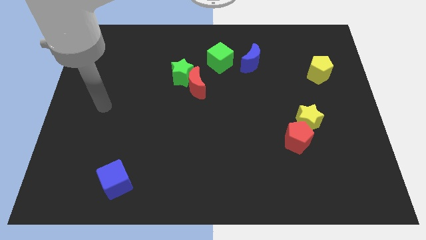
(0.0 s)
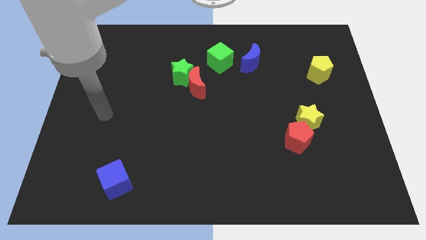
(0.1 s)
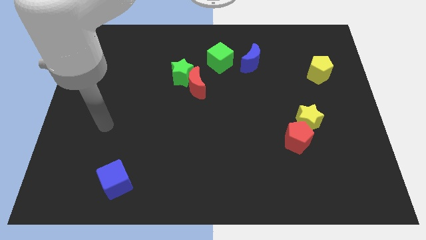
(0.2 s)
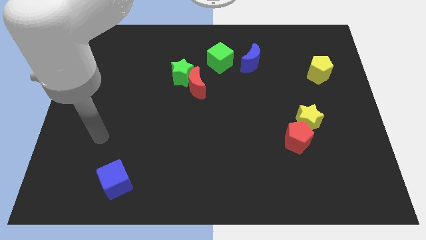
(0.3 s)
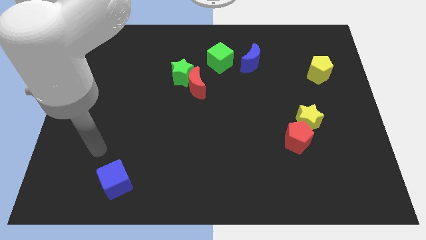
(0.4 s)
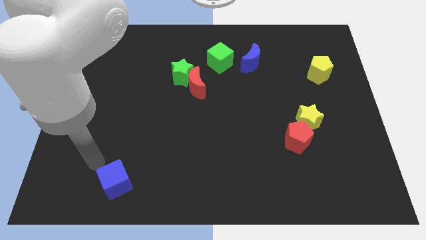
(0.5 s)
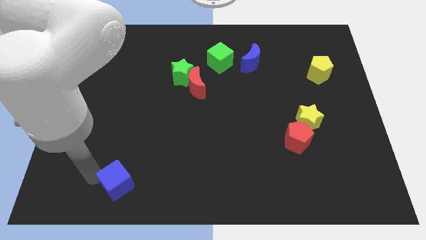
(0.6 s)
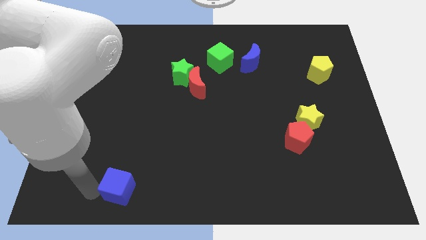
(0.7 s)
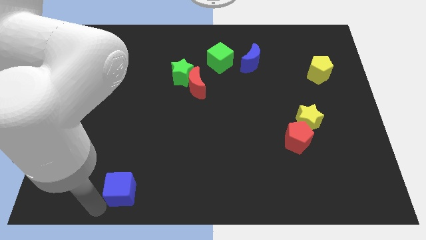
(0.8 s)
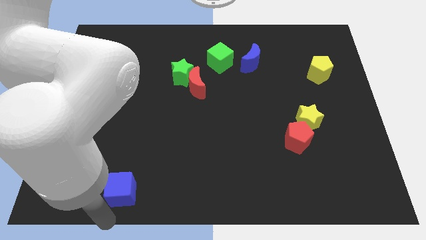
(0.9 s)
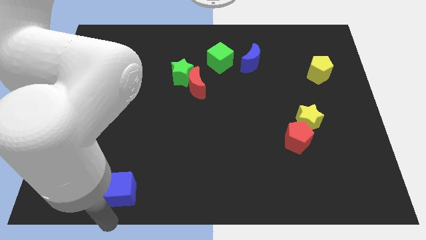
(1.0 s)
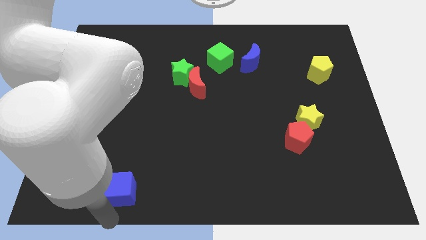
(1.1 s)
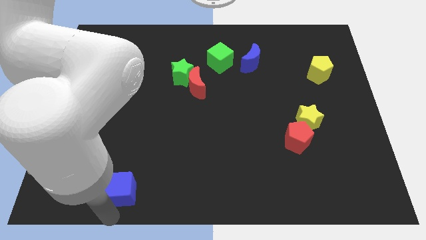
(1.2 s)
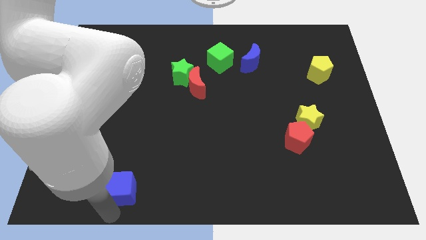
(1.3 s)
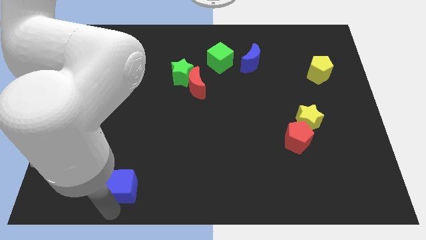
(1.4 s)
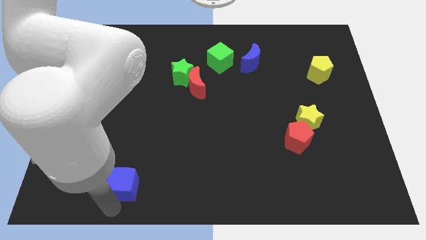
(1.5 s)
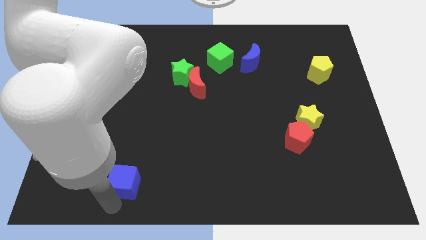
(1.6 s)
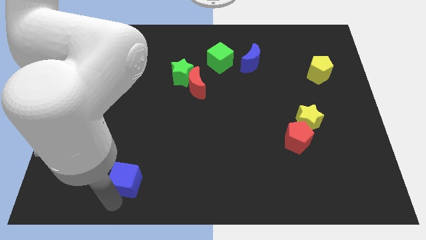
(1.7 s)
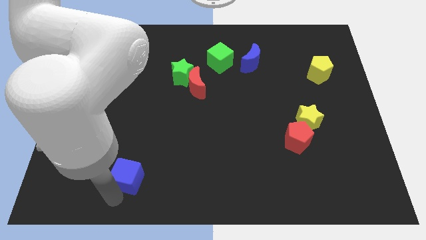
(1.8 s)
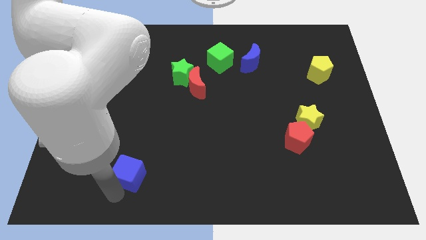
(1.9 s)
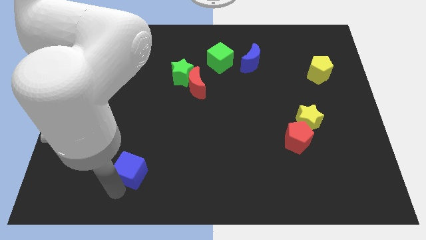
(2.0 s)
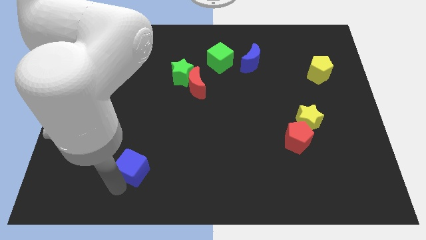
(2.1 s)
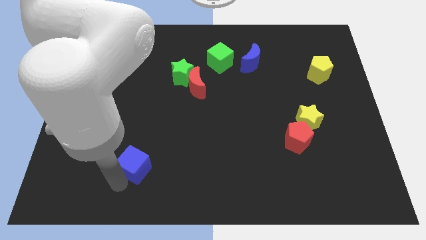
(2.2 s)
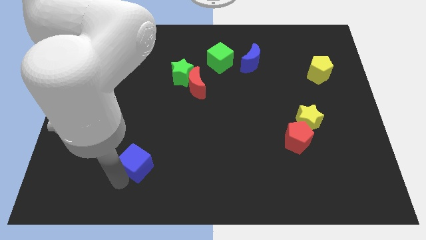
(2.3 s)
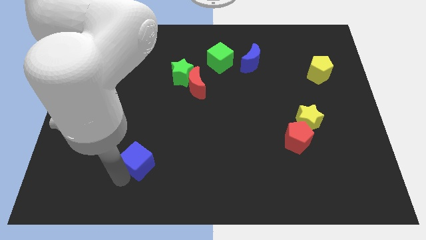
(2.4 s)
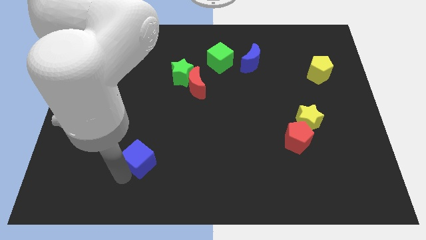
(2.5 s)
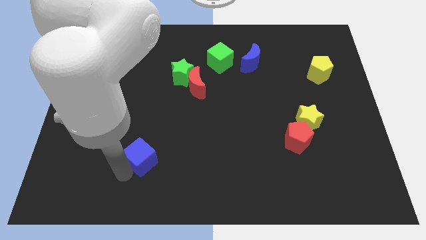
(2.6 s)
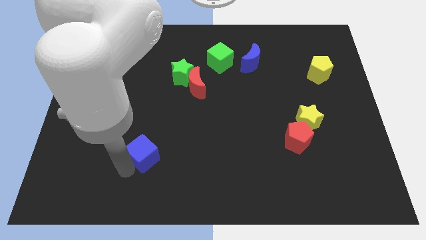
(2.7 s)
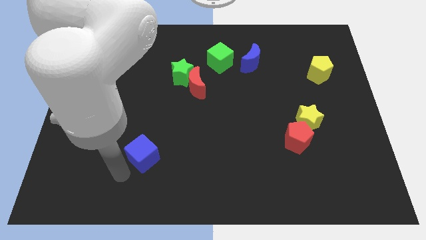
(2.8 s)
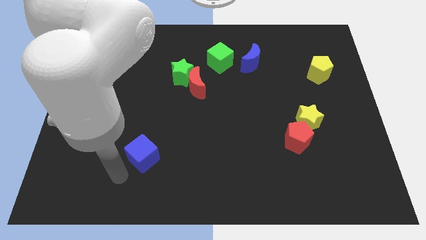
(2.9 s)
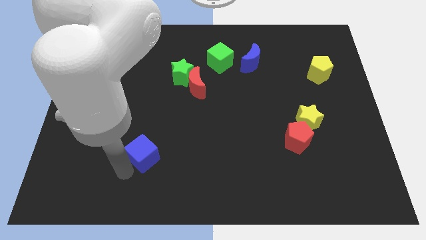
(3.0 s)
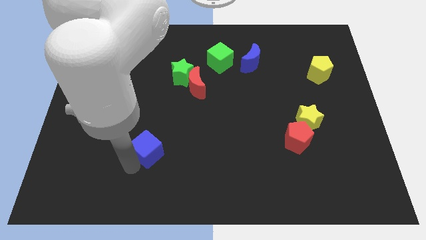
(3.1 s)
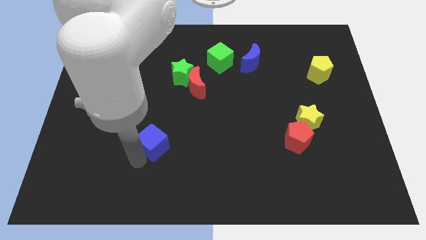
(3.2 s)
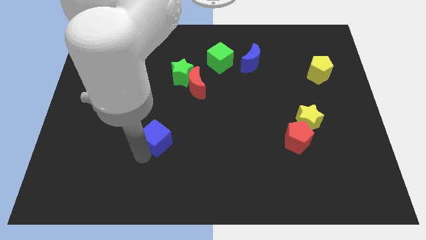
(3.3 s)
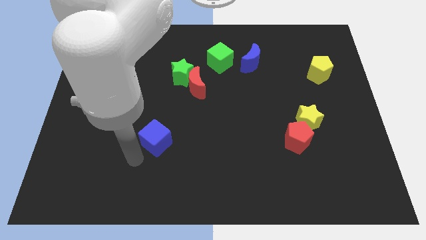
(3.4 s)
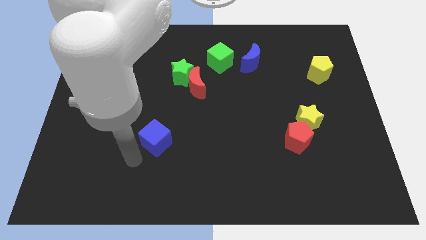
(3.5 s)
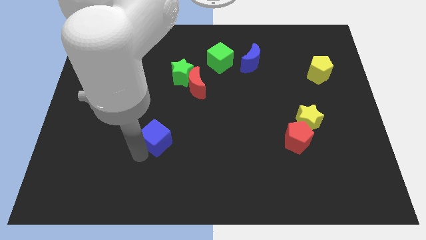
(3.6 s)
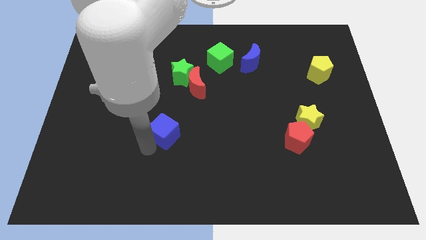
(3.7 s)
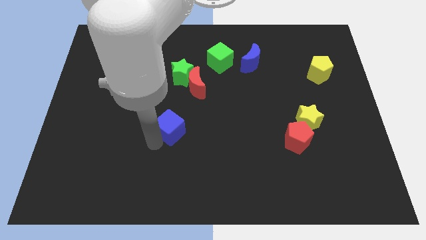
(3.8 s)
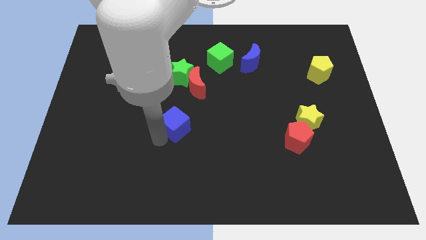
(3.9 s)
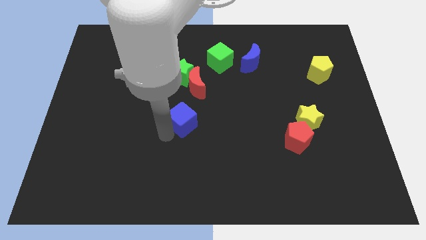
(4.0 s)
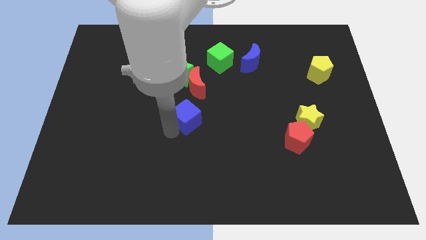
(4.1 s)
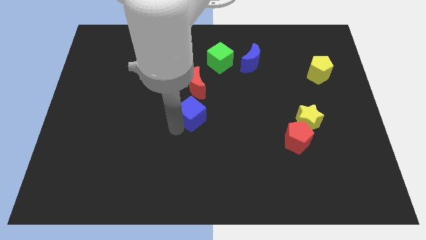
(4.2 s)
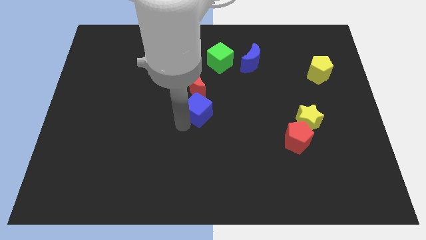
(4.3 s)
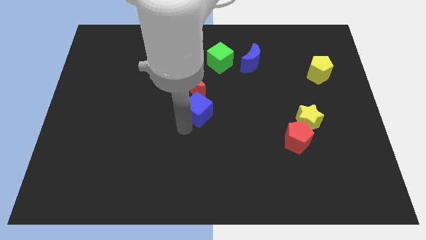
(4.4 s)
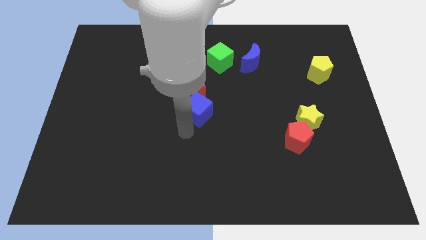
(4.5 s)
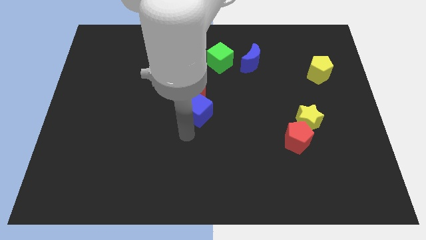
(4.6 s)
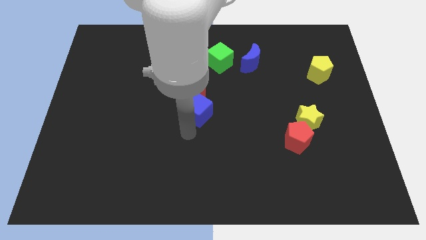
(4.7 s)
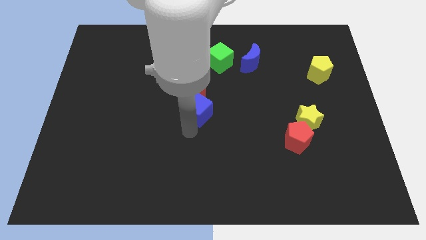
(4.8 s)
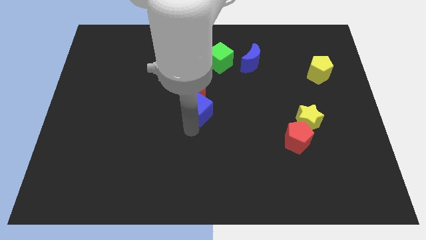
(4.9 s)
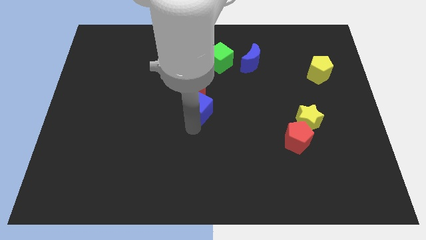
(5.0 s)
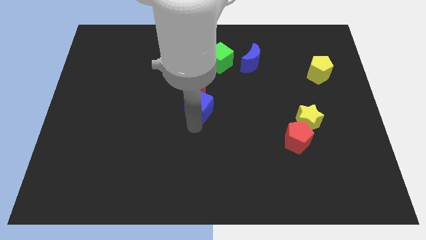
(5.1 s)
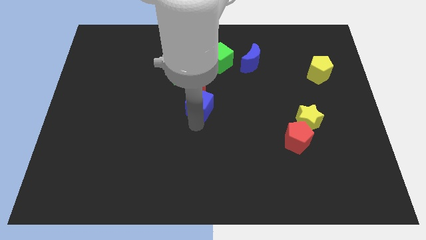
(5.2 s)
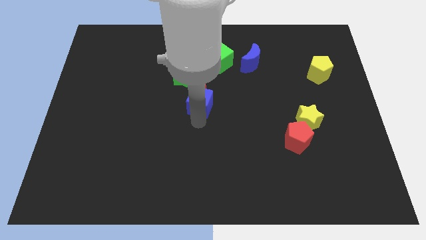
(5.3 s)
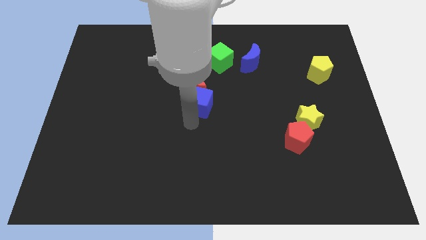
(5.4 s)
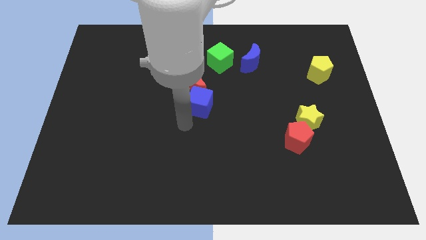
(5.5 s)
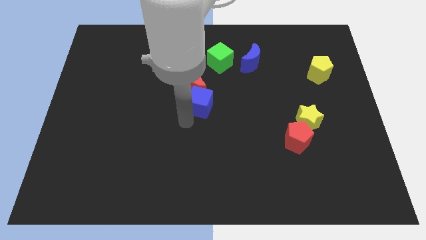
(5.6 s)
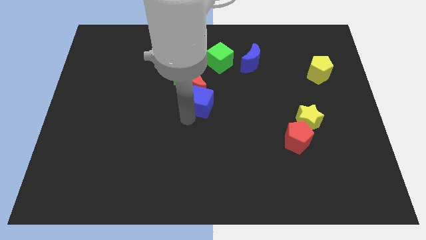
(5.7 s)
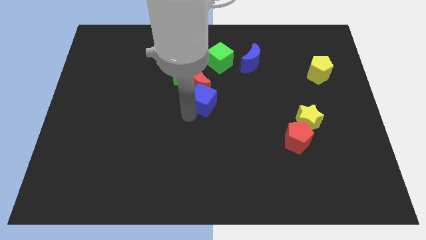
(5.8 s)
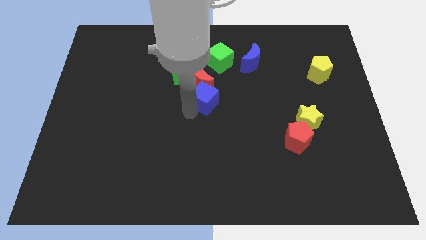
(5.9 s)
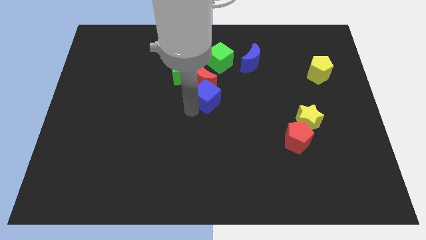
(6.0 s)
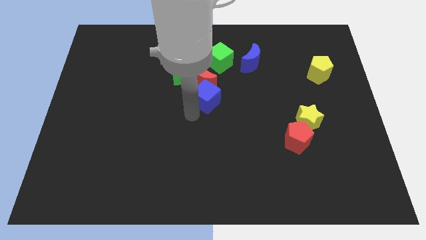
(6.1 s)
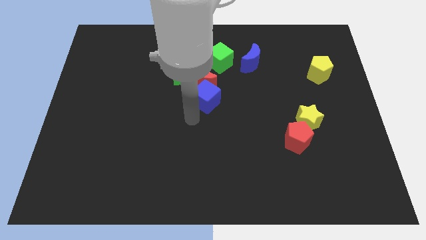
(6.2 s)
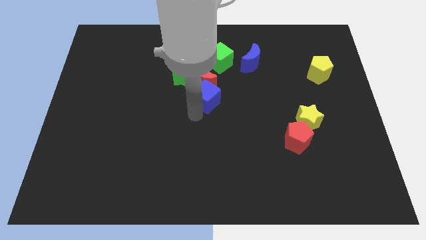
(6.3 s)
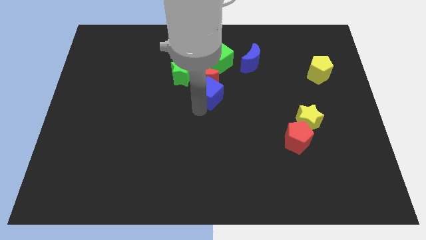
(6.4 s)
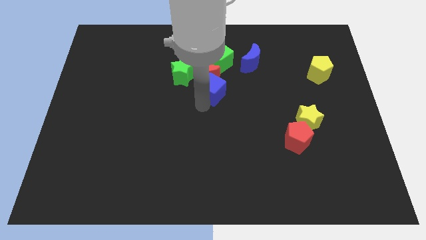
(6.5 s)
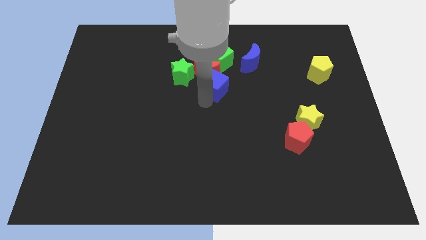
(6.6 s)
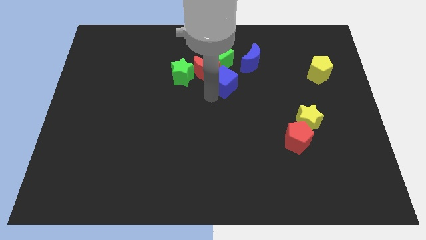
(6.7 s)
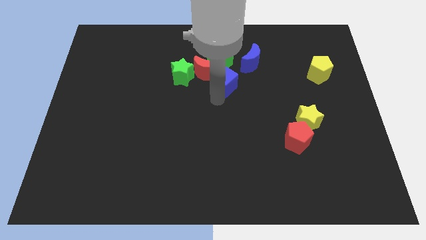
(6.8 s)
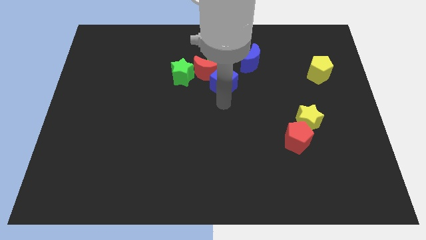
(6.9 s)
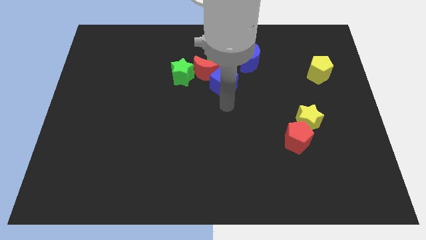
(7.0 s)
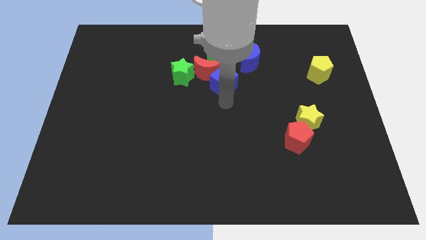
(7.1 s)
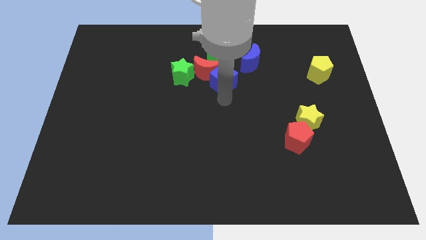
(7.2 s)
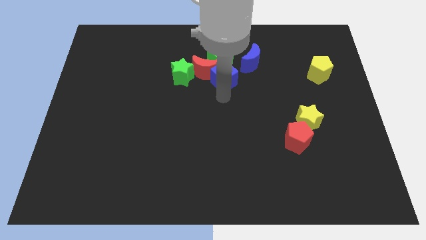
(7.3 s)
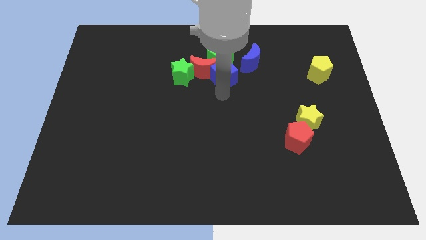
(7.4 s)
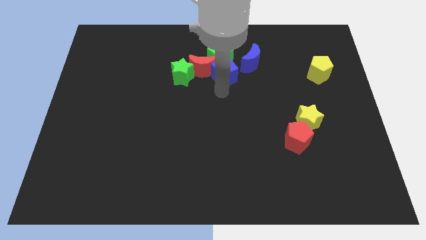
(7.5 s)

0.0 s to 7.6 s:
push the blue cube close to the green cube
